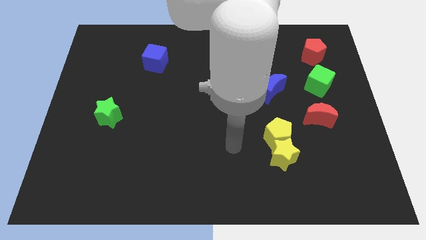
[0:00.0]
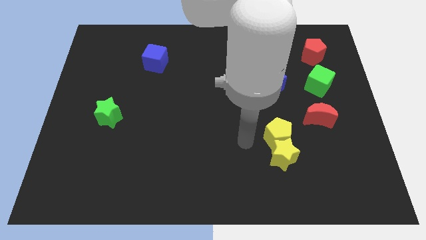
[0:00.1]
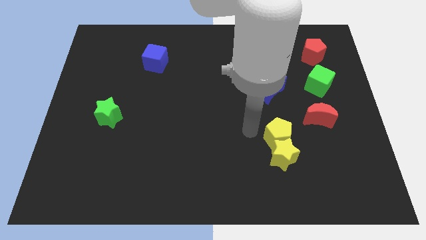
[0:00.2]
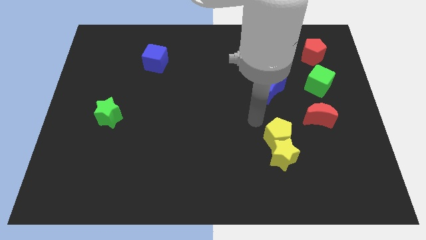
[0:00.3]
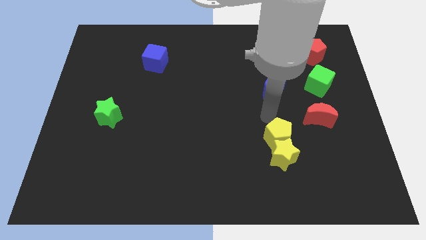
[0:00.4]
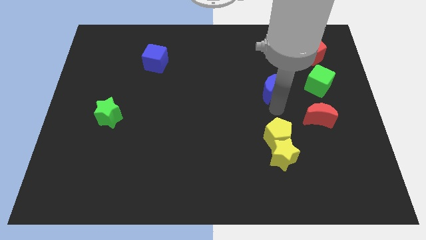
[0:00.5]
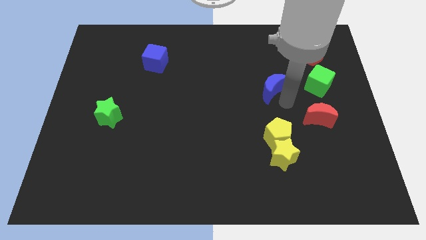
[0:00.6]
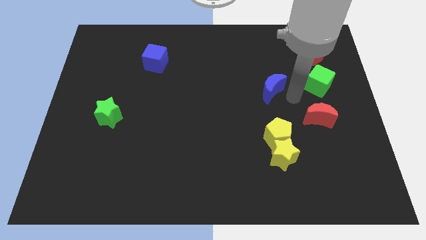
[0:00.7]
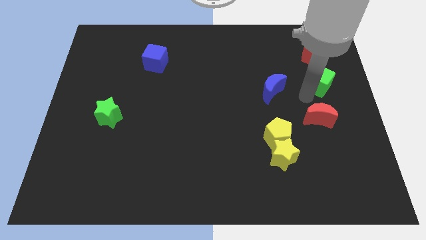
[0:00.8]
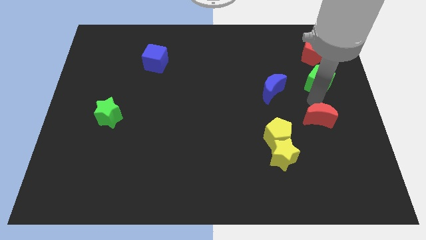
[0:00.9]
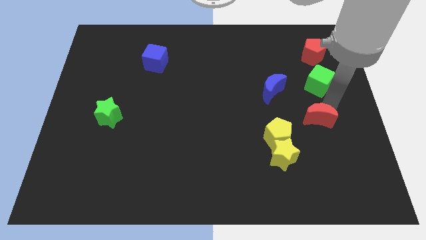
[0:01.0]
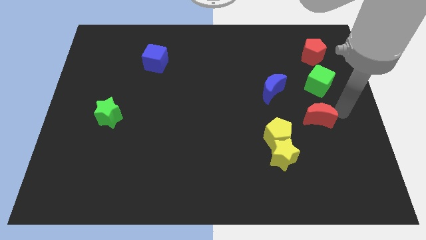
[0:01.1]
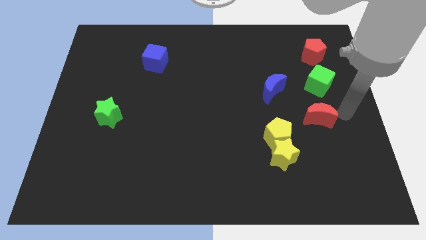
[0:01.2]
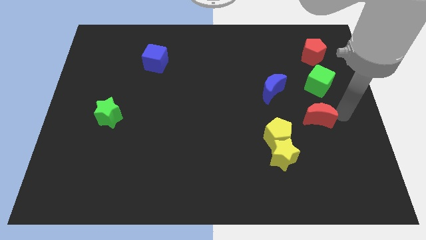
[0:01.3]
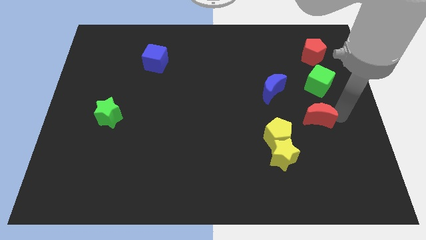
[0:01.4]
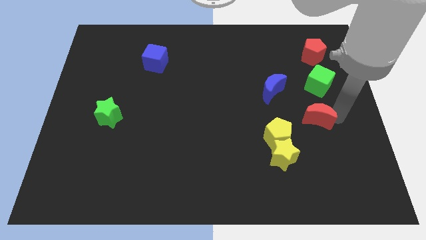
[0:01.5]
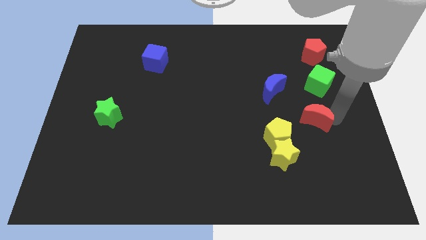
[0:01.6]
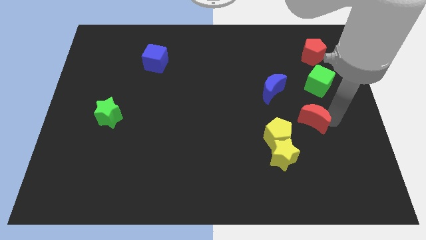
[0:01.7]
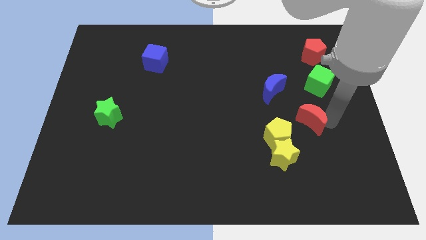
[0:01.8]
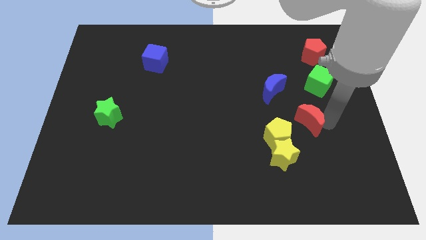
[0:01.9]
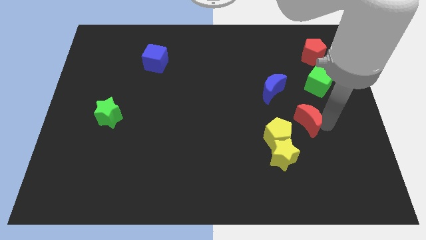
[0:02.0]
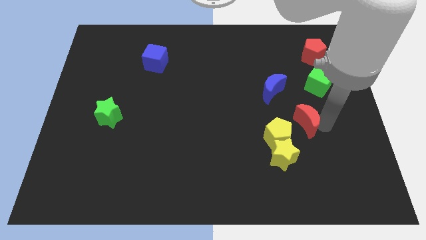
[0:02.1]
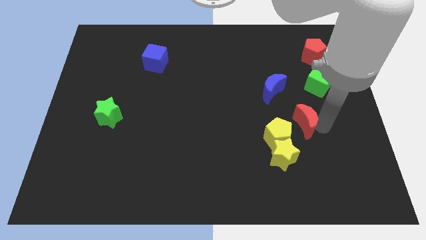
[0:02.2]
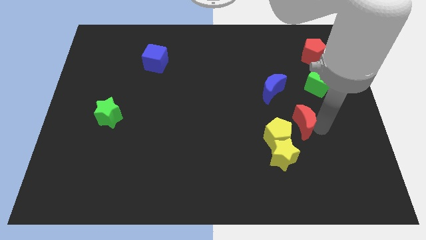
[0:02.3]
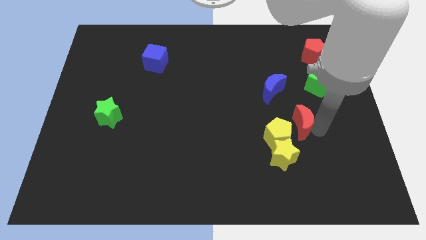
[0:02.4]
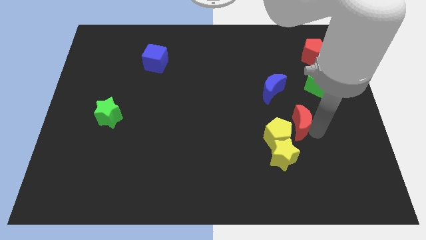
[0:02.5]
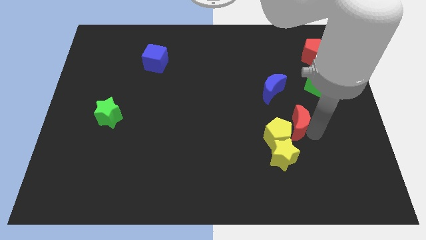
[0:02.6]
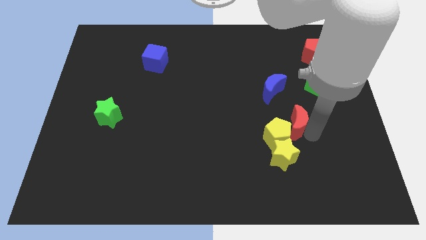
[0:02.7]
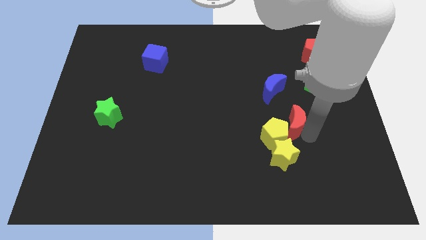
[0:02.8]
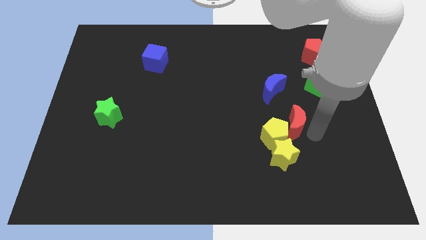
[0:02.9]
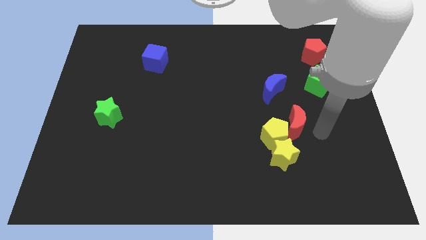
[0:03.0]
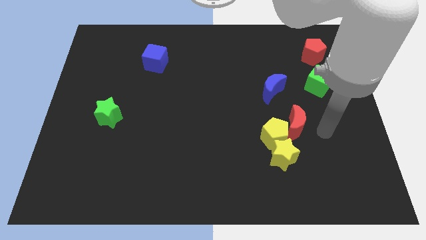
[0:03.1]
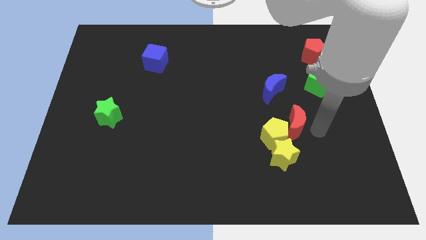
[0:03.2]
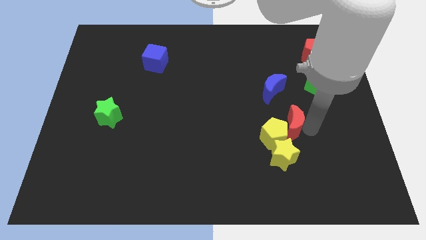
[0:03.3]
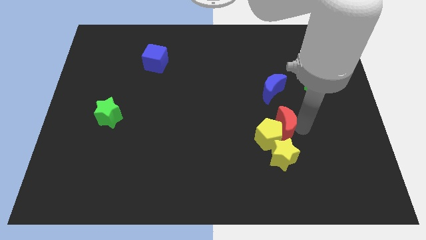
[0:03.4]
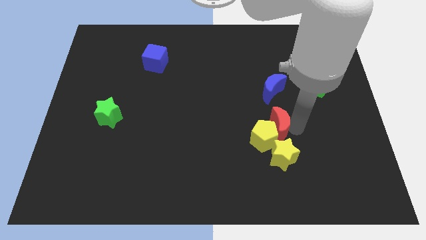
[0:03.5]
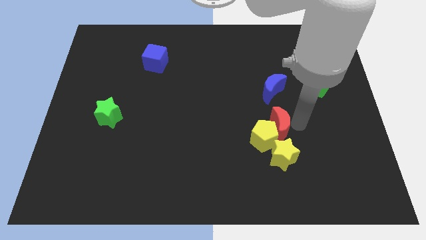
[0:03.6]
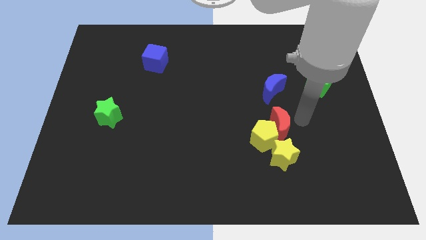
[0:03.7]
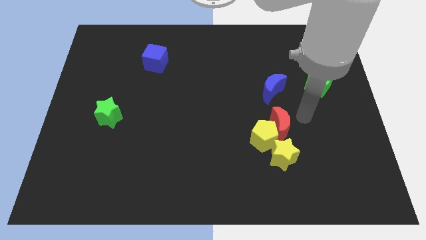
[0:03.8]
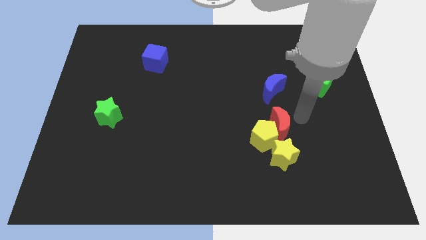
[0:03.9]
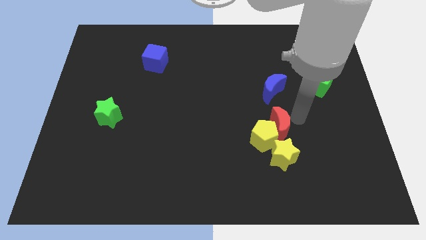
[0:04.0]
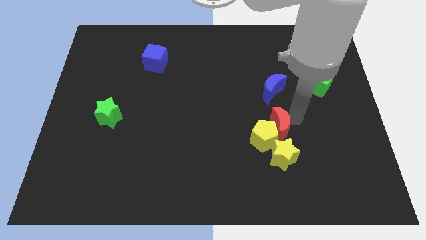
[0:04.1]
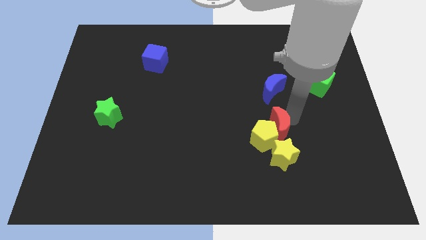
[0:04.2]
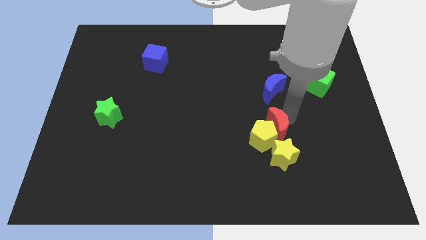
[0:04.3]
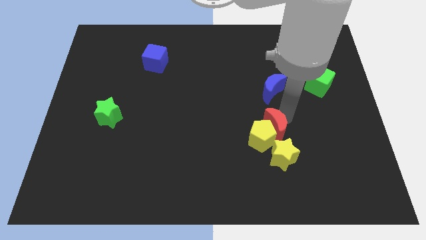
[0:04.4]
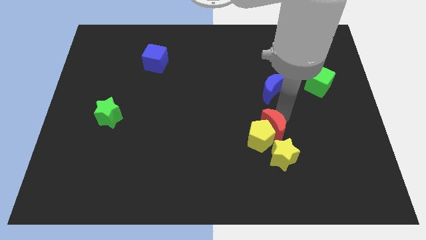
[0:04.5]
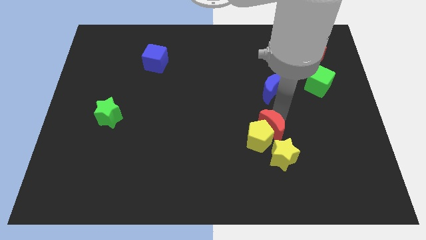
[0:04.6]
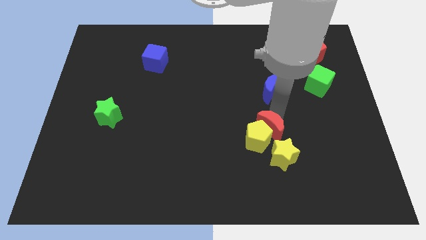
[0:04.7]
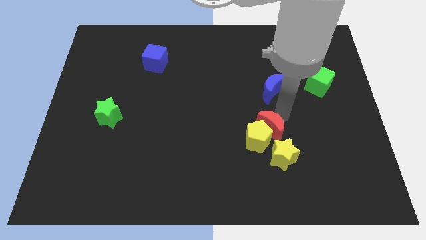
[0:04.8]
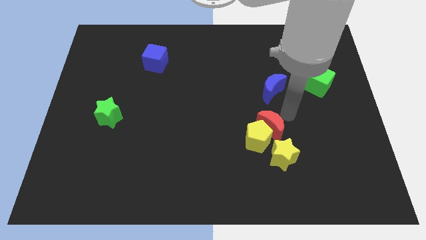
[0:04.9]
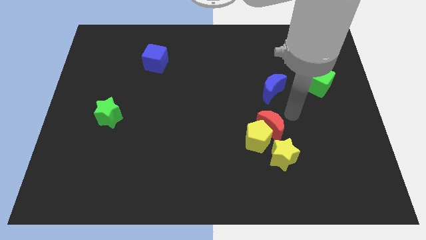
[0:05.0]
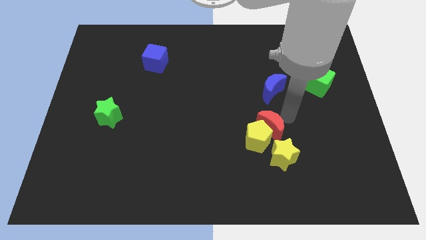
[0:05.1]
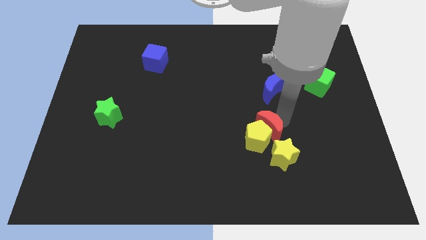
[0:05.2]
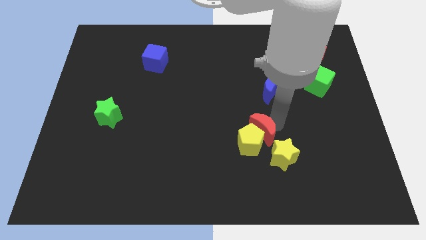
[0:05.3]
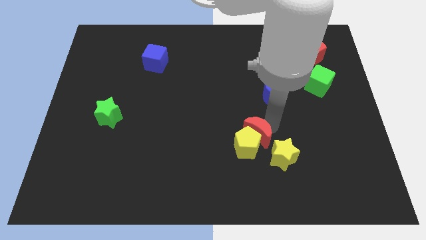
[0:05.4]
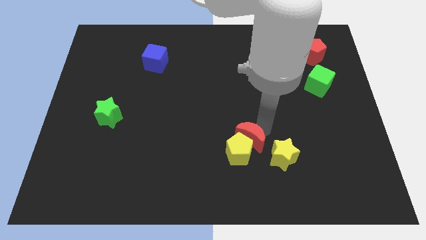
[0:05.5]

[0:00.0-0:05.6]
slide the red moon left of the yellow star

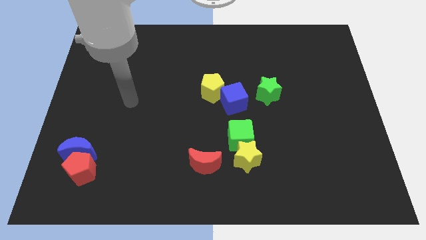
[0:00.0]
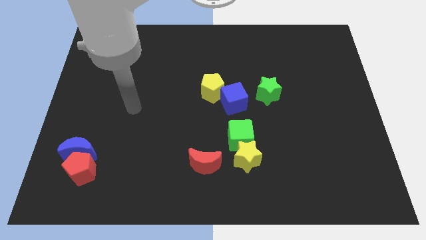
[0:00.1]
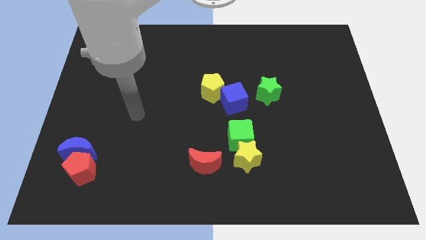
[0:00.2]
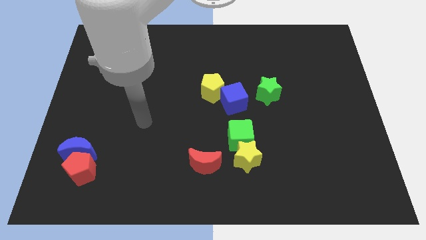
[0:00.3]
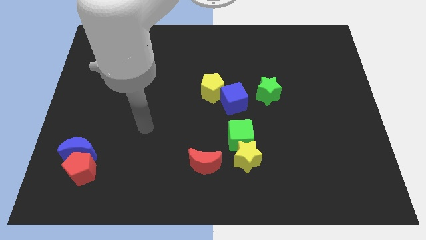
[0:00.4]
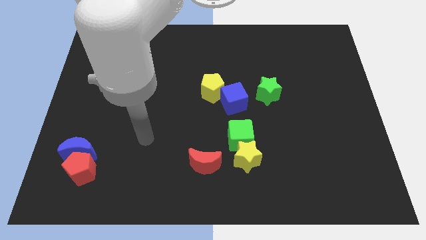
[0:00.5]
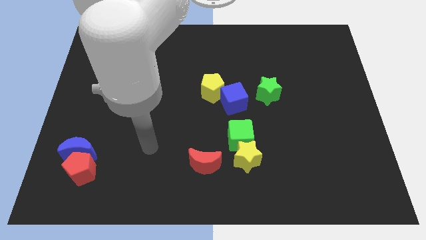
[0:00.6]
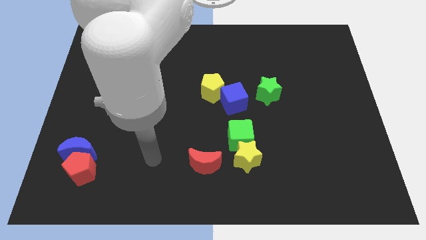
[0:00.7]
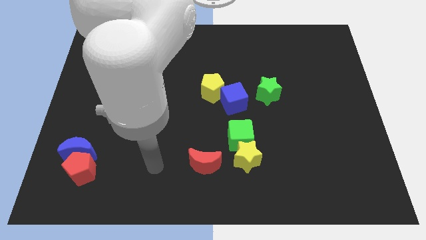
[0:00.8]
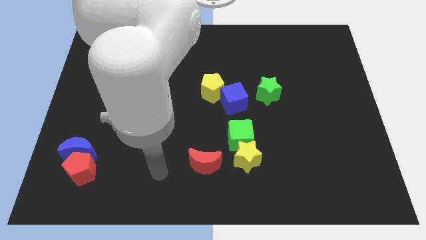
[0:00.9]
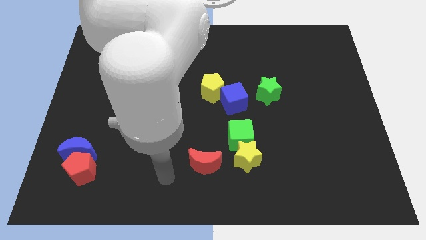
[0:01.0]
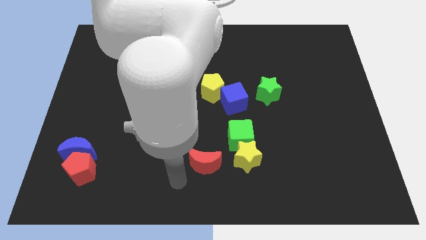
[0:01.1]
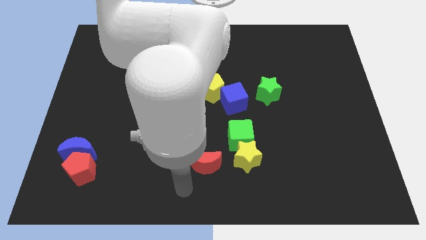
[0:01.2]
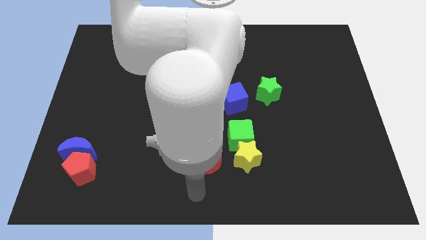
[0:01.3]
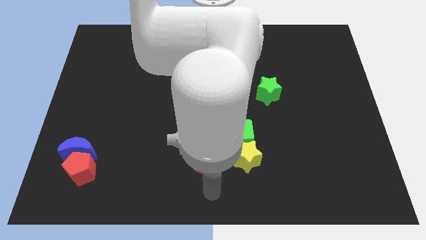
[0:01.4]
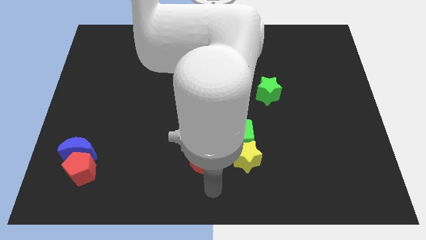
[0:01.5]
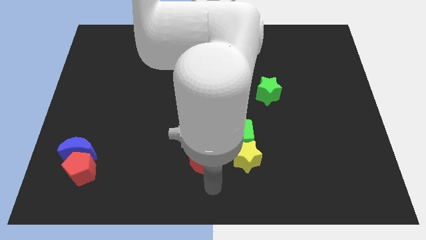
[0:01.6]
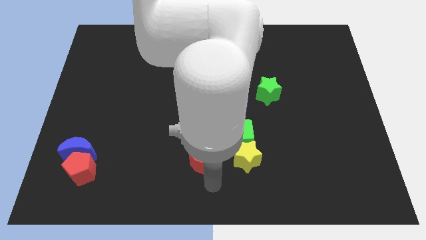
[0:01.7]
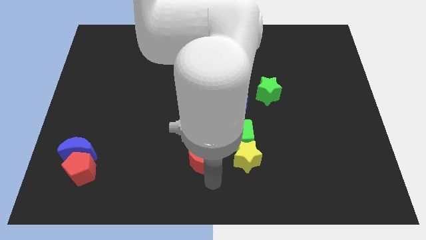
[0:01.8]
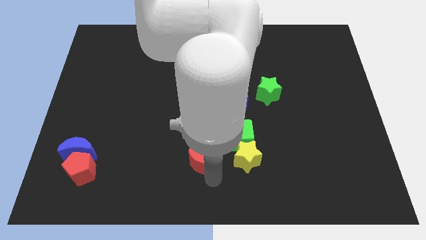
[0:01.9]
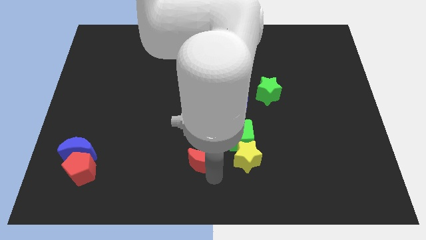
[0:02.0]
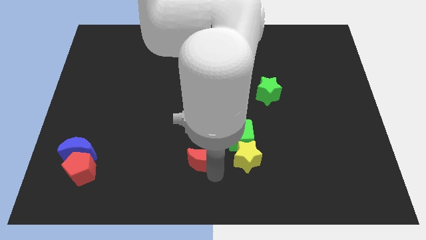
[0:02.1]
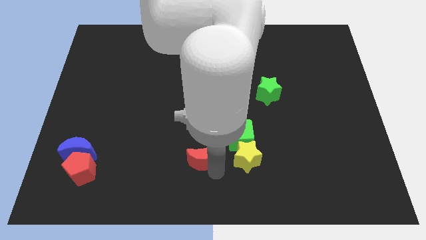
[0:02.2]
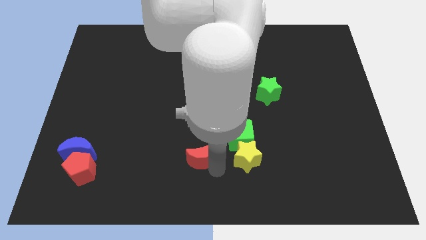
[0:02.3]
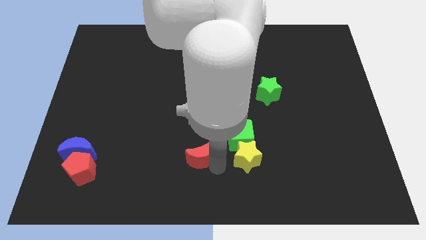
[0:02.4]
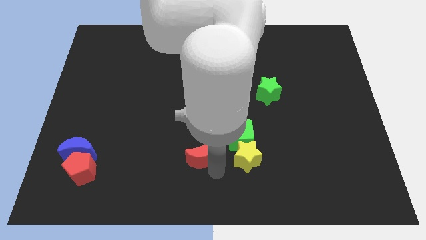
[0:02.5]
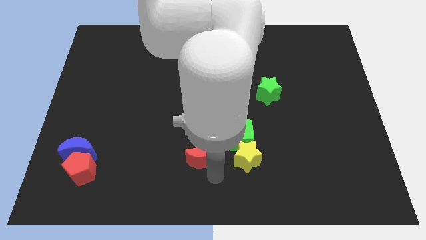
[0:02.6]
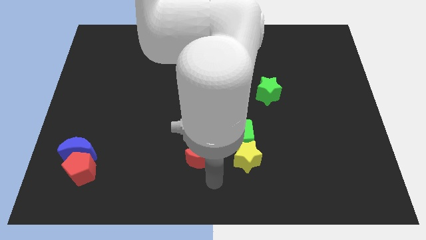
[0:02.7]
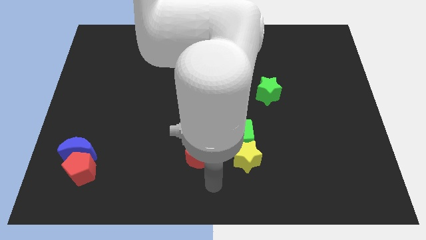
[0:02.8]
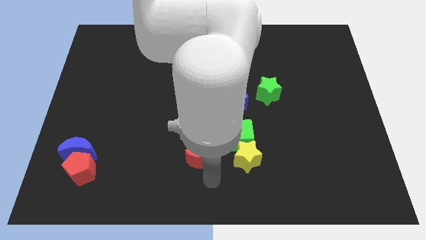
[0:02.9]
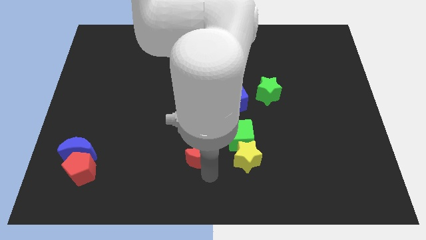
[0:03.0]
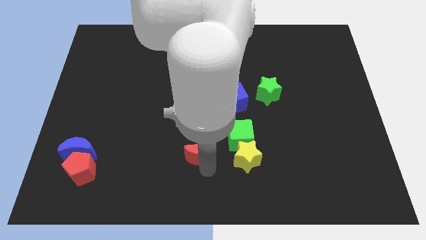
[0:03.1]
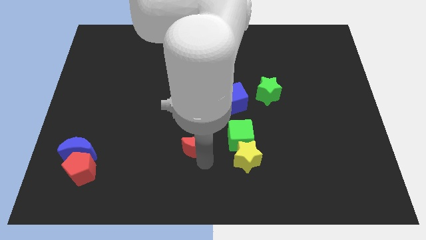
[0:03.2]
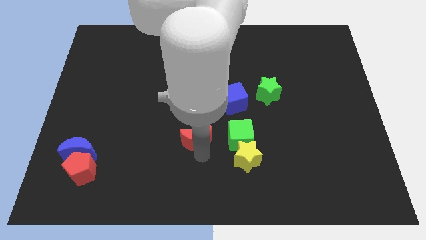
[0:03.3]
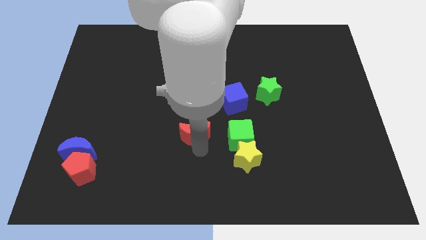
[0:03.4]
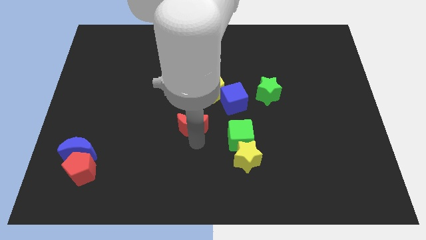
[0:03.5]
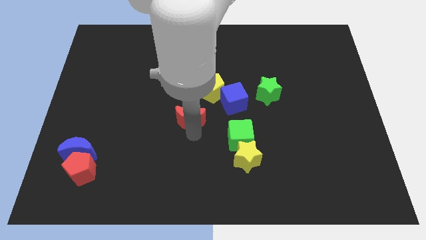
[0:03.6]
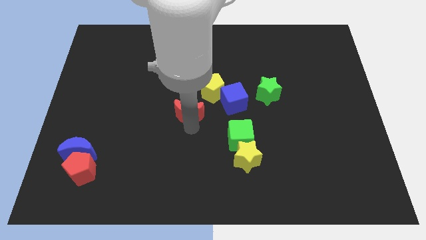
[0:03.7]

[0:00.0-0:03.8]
put the red moon to the left of the blue cube
